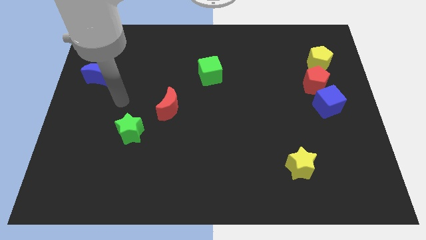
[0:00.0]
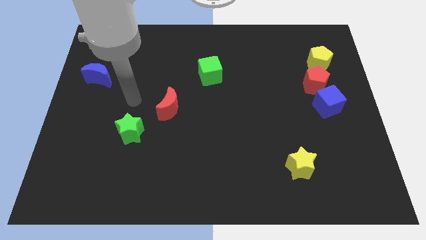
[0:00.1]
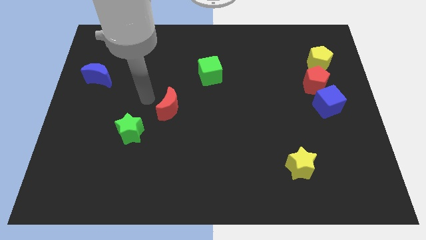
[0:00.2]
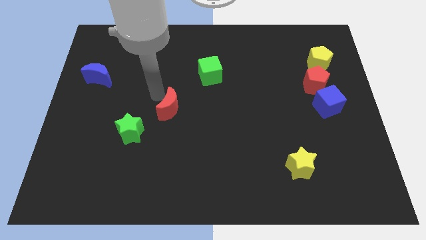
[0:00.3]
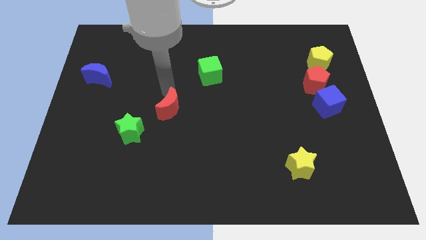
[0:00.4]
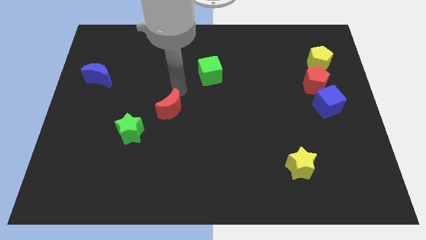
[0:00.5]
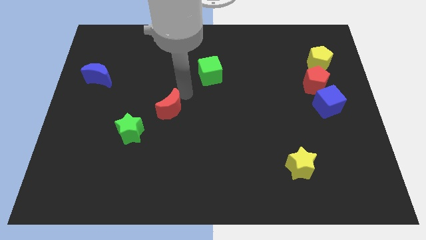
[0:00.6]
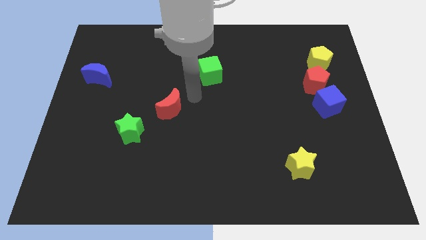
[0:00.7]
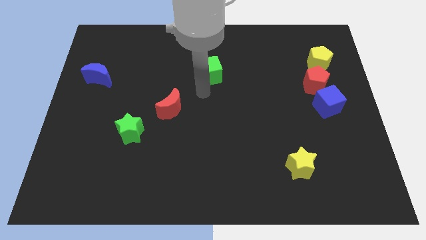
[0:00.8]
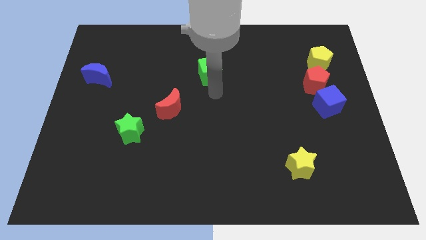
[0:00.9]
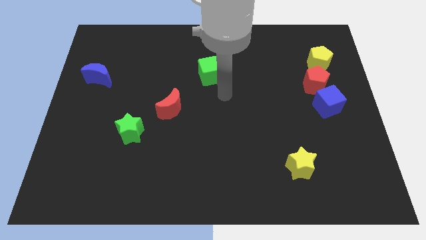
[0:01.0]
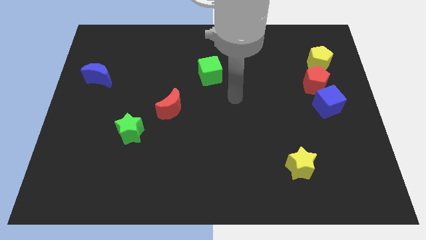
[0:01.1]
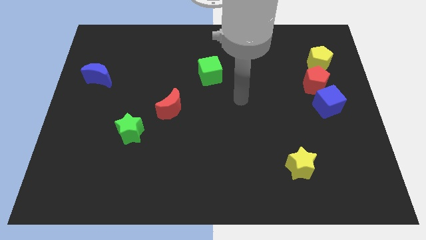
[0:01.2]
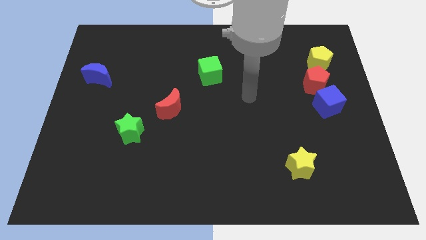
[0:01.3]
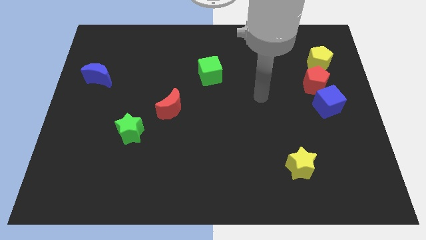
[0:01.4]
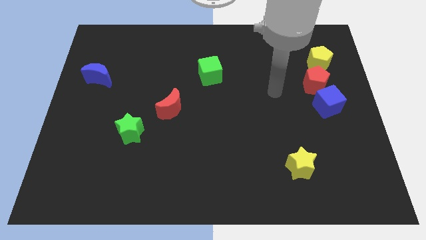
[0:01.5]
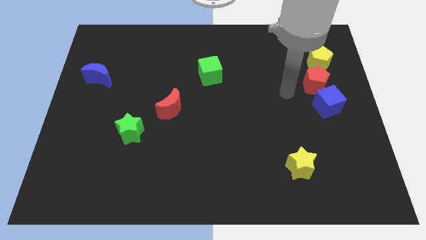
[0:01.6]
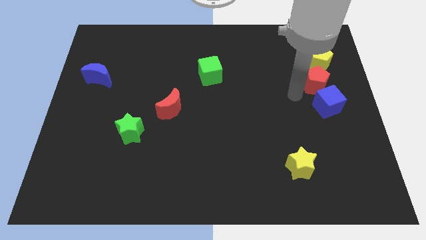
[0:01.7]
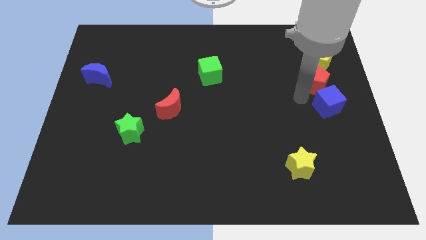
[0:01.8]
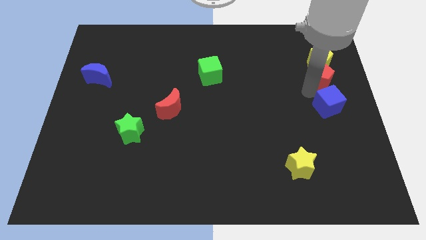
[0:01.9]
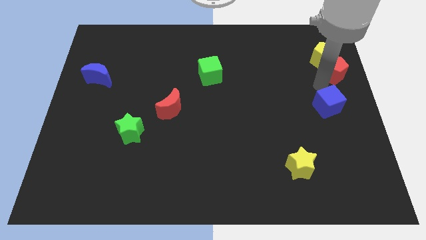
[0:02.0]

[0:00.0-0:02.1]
move the blue cube away from the red pentagon

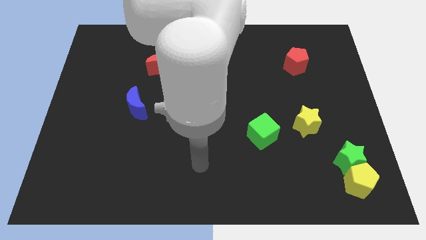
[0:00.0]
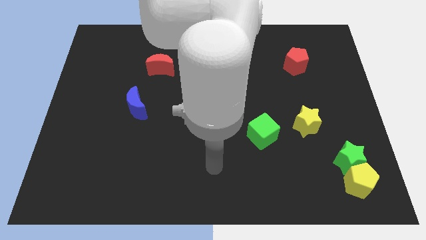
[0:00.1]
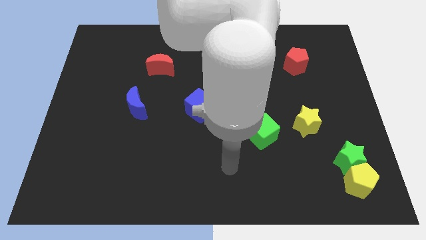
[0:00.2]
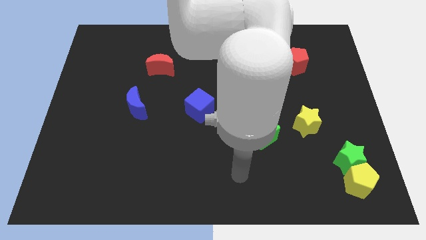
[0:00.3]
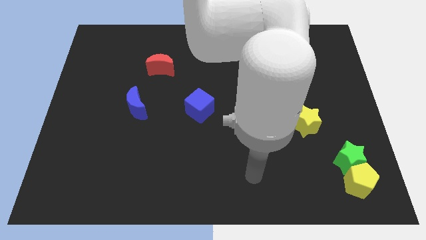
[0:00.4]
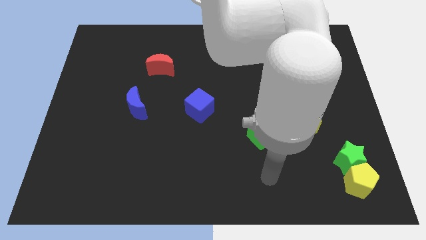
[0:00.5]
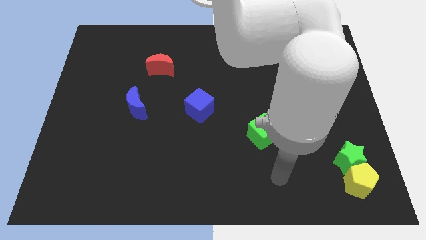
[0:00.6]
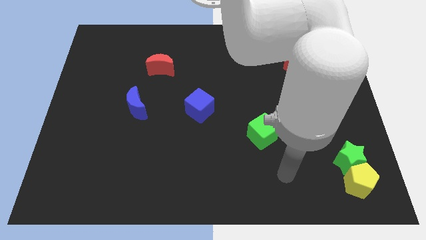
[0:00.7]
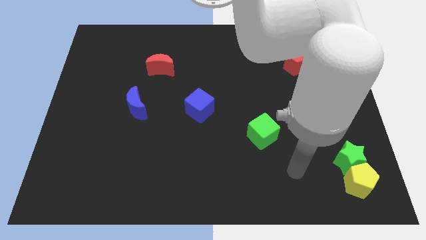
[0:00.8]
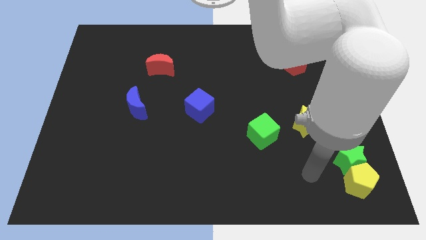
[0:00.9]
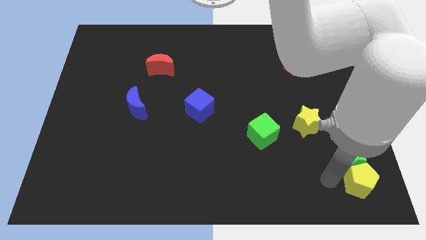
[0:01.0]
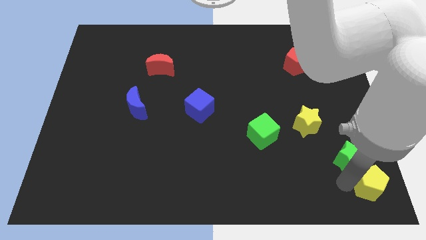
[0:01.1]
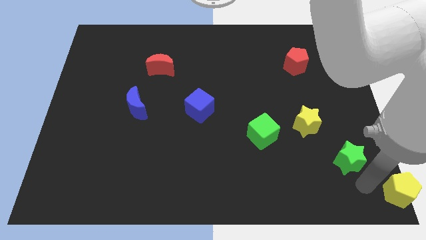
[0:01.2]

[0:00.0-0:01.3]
pull the green star apart from the yellow pentagon

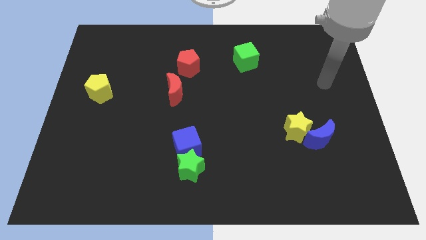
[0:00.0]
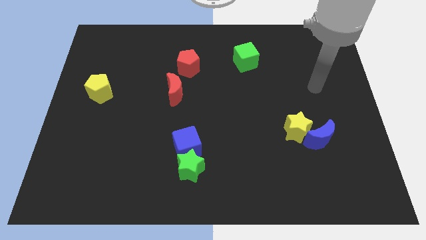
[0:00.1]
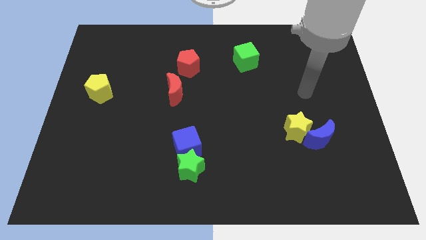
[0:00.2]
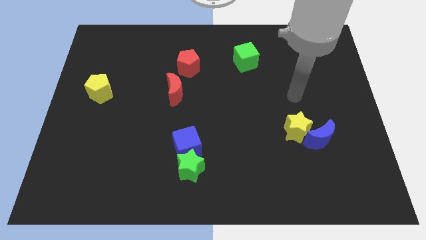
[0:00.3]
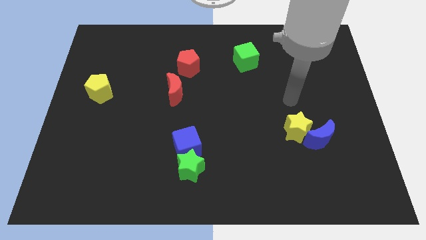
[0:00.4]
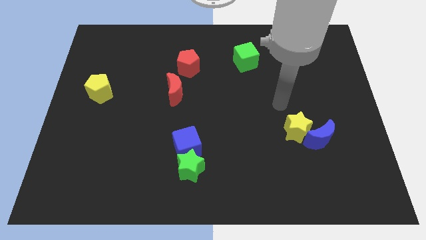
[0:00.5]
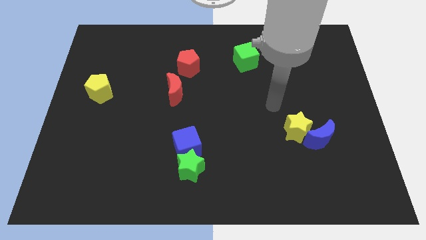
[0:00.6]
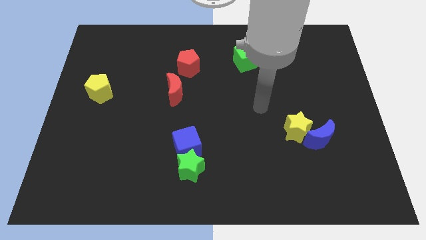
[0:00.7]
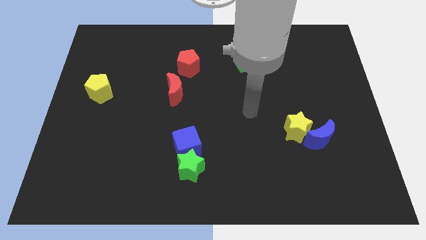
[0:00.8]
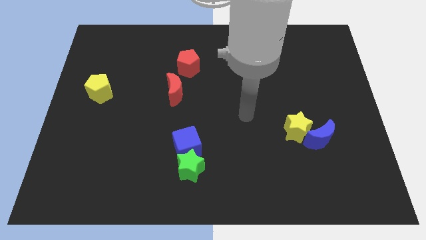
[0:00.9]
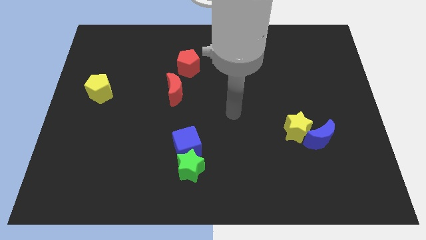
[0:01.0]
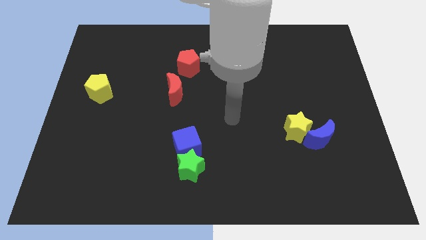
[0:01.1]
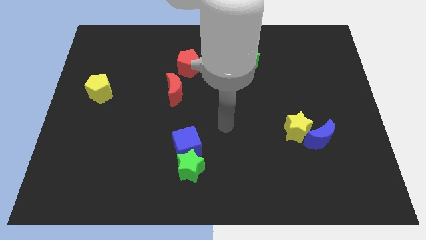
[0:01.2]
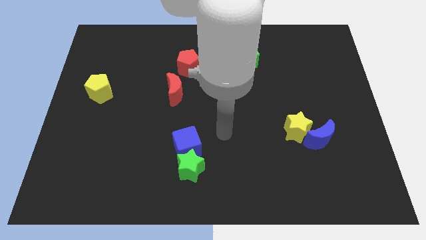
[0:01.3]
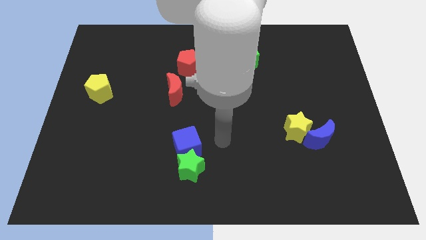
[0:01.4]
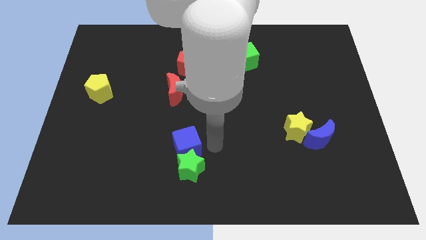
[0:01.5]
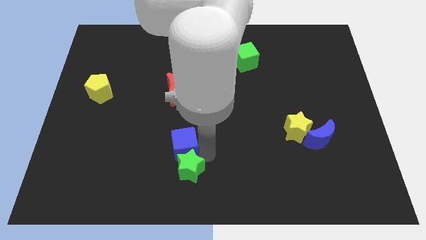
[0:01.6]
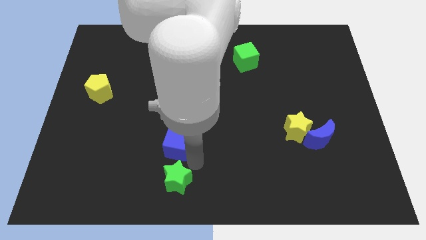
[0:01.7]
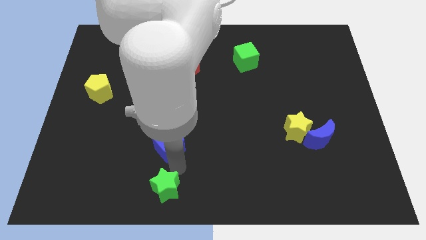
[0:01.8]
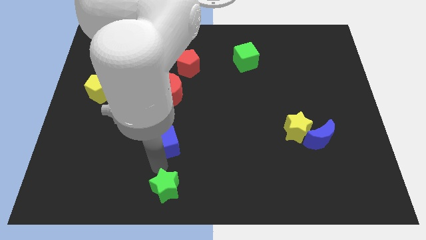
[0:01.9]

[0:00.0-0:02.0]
pull the blue cube apart from the green star

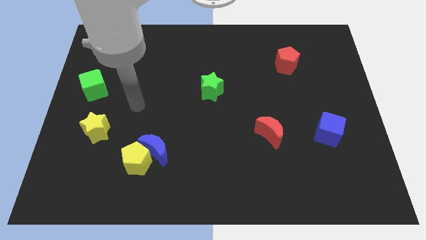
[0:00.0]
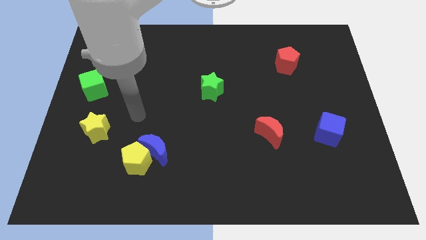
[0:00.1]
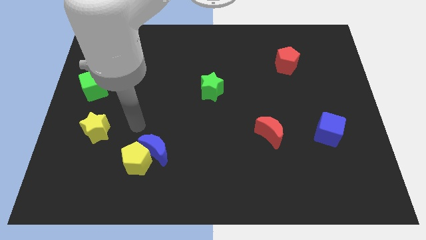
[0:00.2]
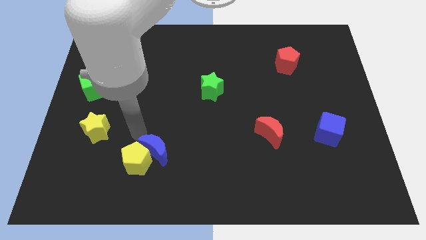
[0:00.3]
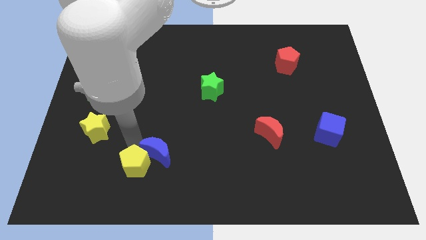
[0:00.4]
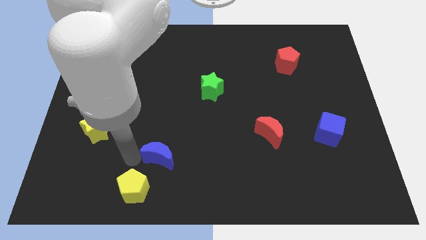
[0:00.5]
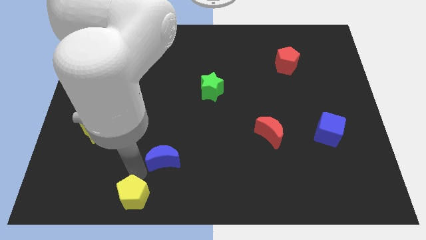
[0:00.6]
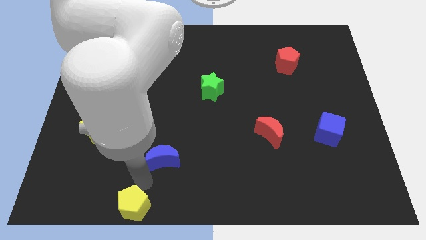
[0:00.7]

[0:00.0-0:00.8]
move the blue moon away from the yellow pentagon

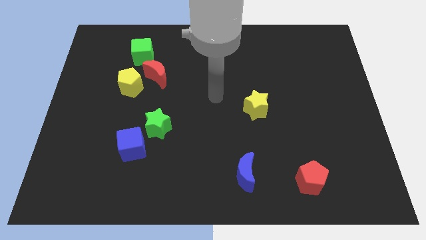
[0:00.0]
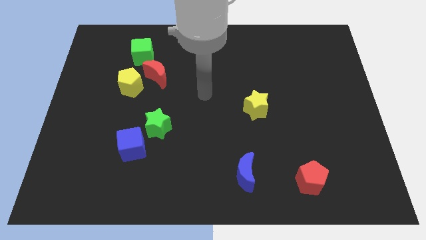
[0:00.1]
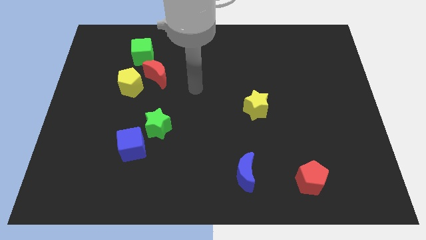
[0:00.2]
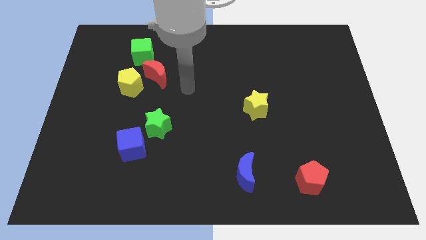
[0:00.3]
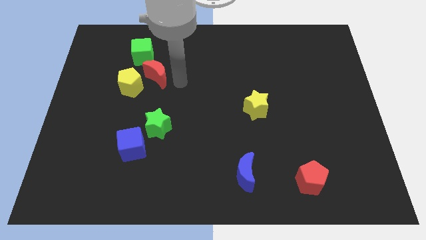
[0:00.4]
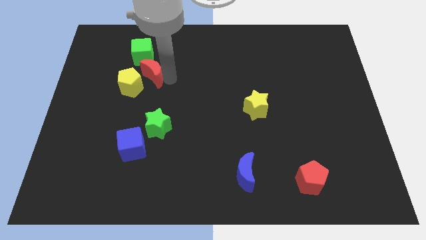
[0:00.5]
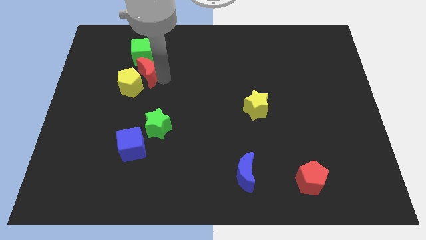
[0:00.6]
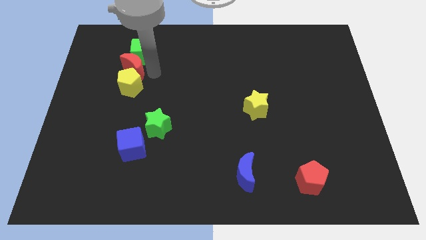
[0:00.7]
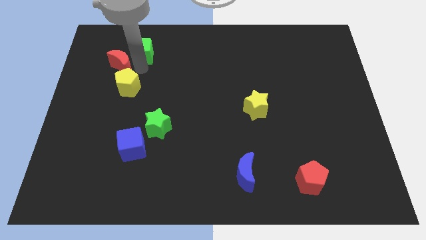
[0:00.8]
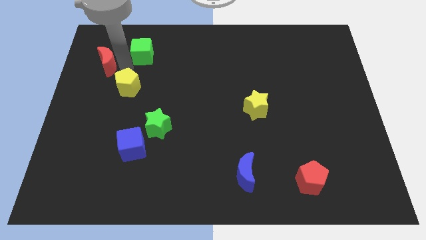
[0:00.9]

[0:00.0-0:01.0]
move the yellow pentagon away from the red moon

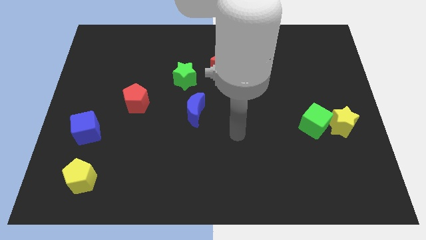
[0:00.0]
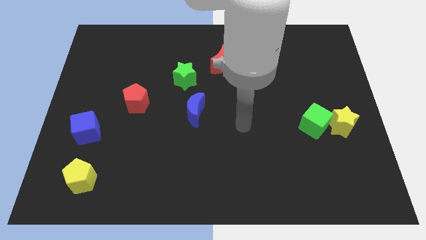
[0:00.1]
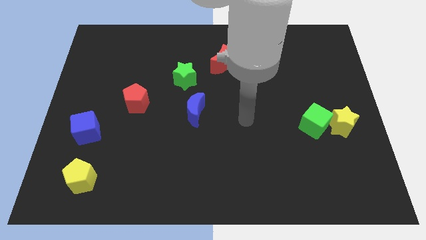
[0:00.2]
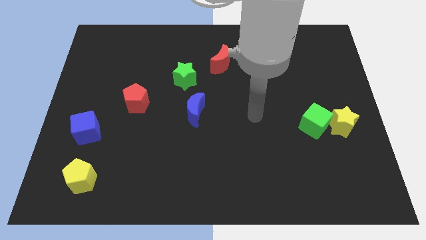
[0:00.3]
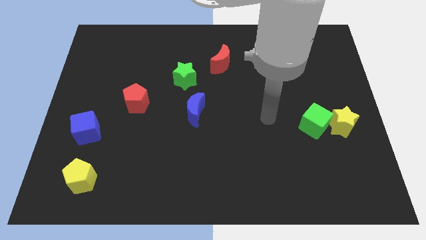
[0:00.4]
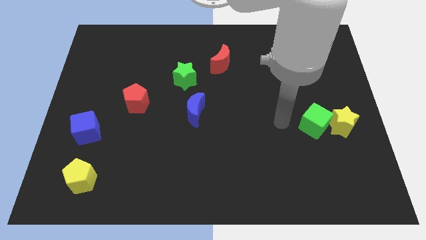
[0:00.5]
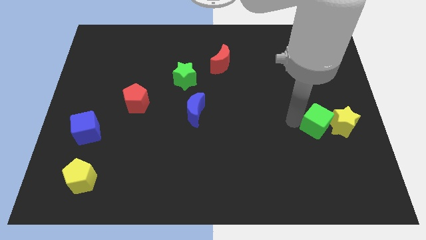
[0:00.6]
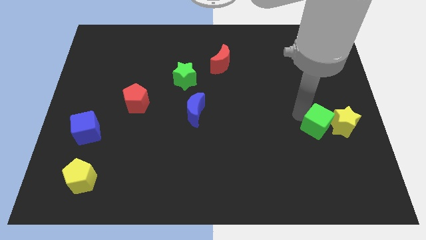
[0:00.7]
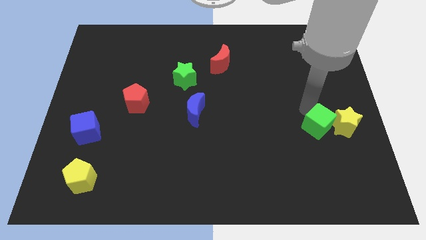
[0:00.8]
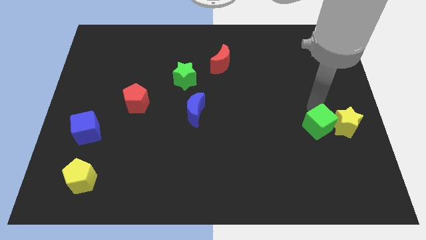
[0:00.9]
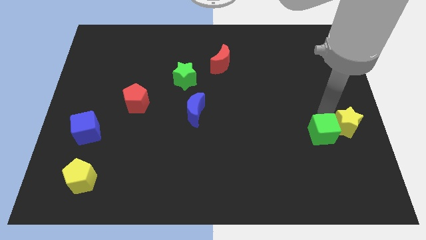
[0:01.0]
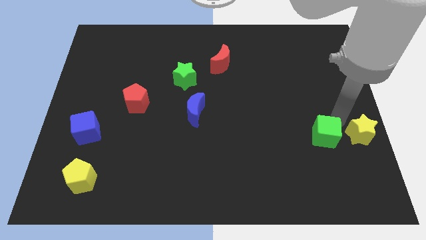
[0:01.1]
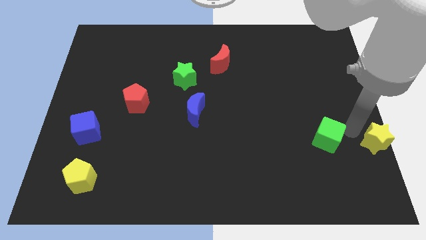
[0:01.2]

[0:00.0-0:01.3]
pull the green cube apart from the yellow star

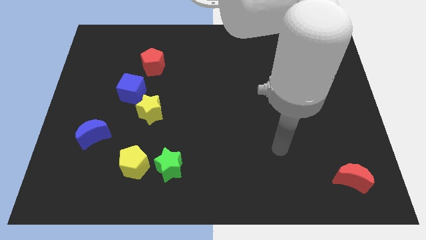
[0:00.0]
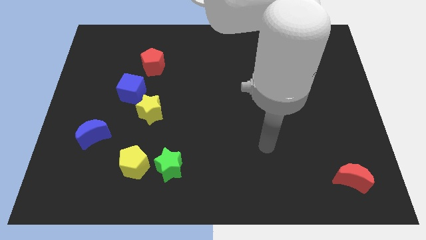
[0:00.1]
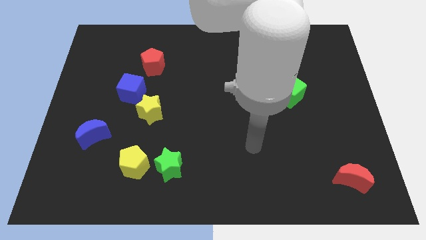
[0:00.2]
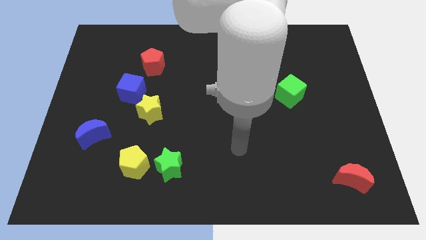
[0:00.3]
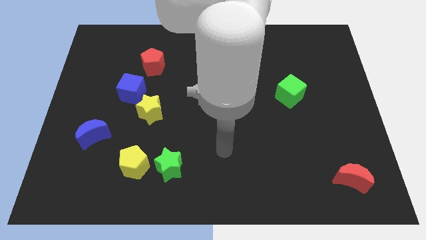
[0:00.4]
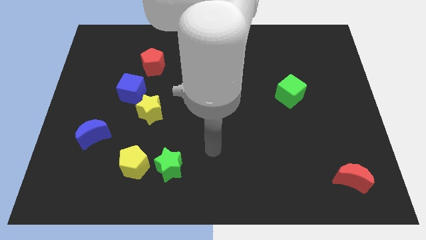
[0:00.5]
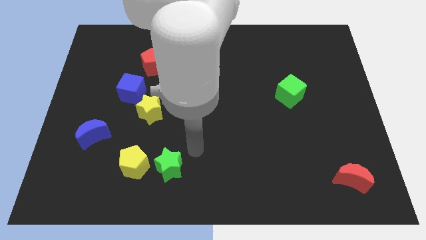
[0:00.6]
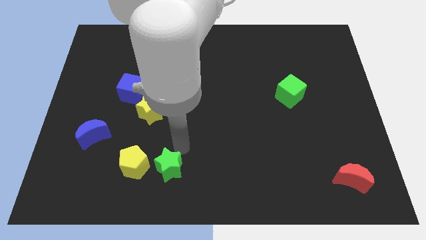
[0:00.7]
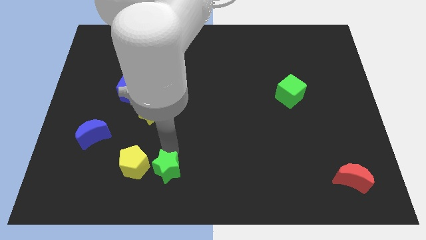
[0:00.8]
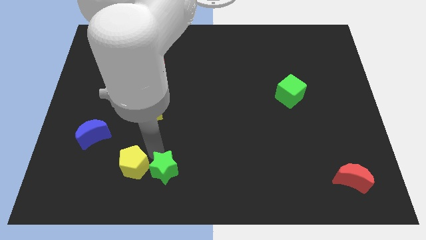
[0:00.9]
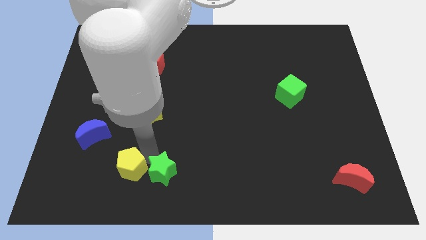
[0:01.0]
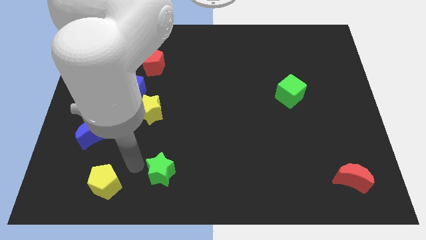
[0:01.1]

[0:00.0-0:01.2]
move the green star away from the yellow pentagon
